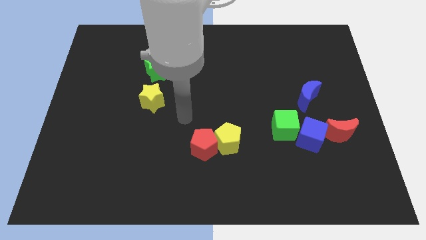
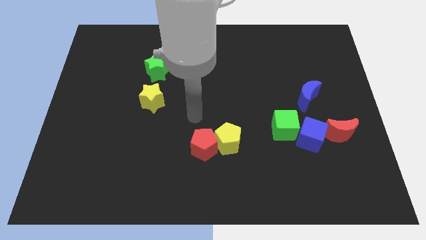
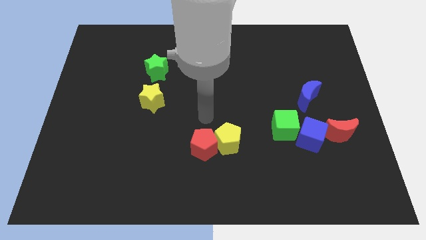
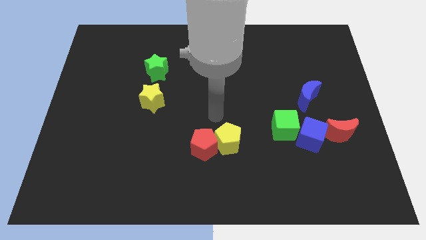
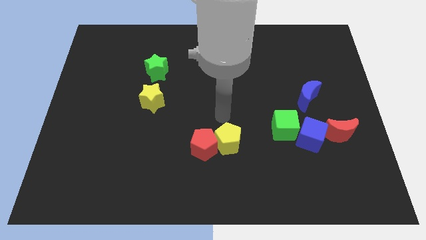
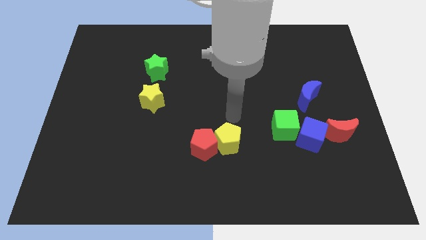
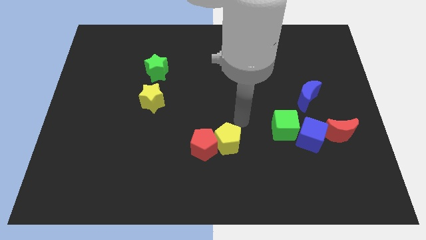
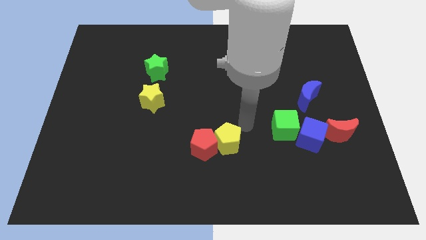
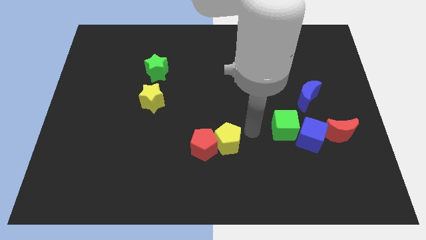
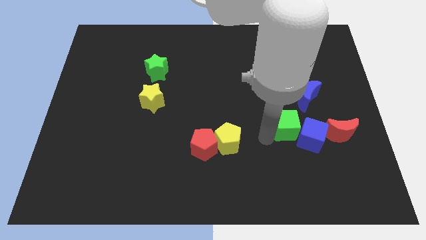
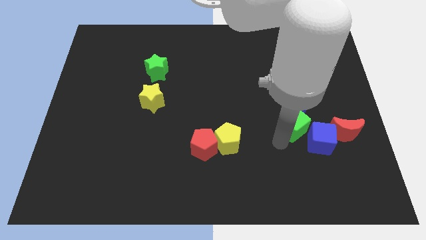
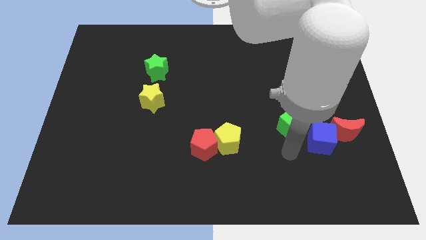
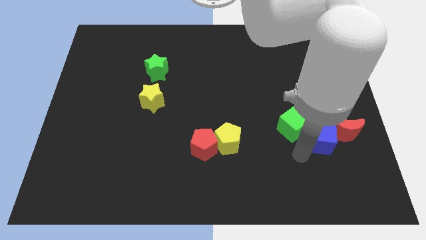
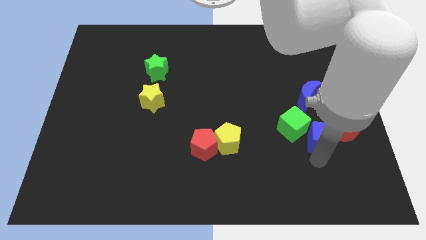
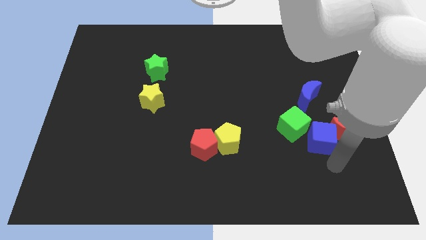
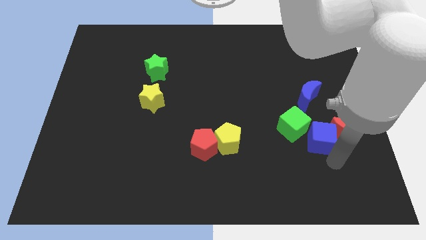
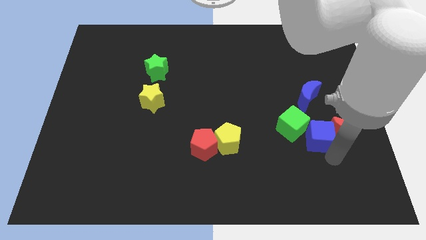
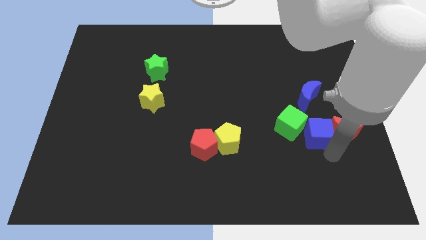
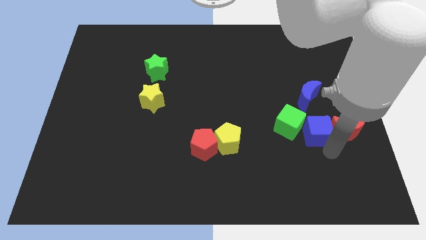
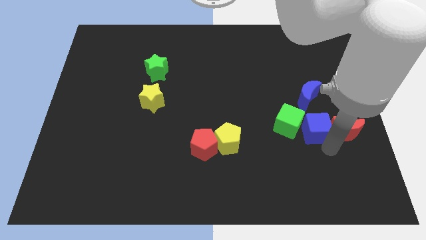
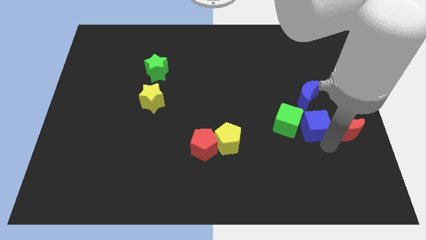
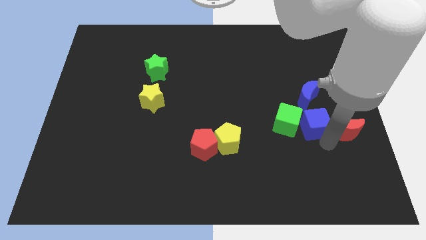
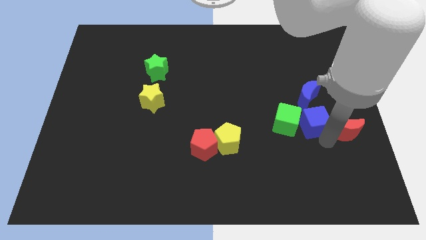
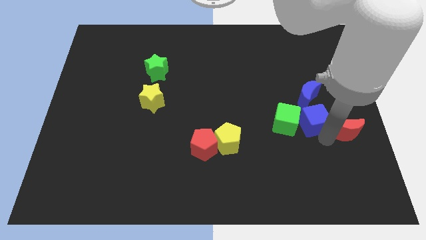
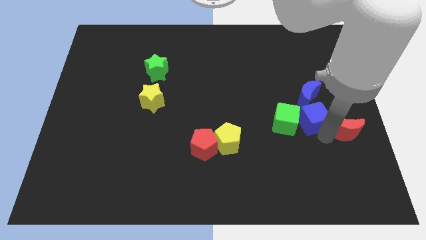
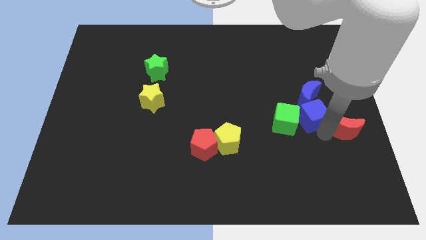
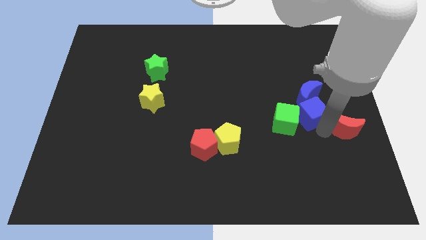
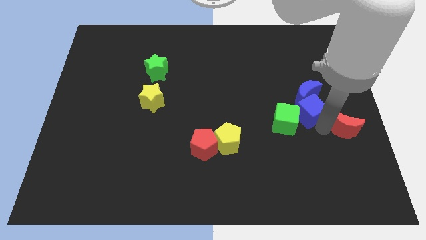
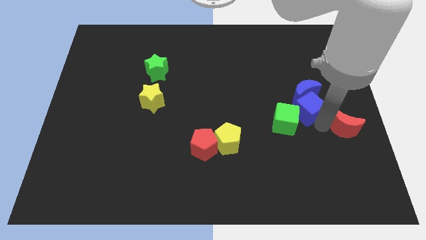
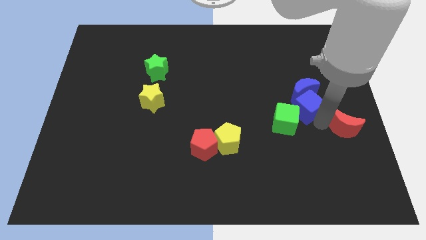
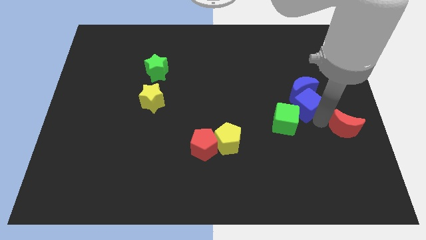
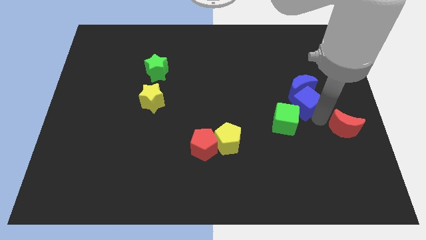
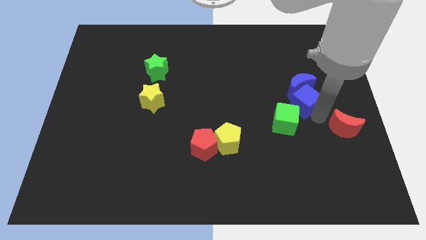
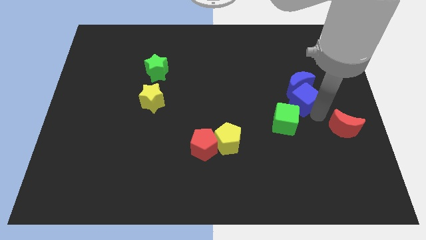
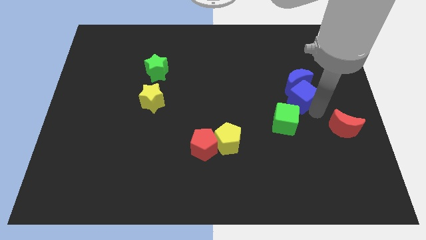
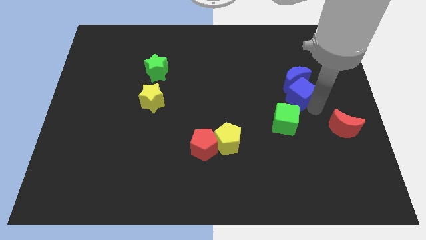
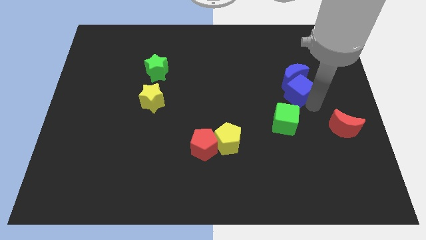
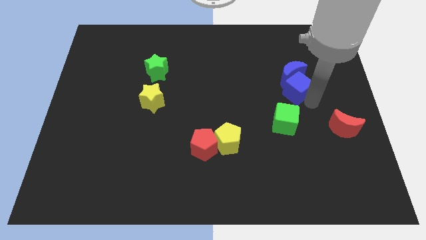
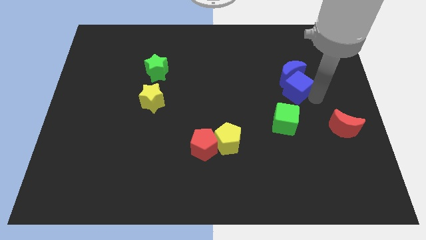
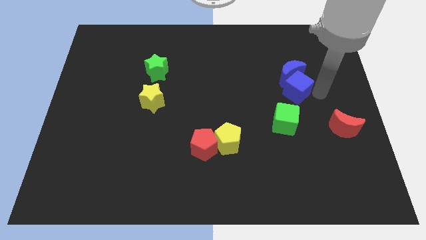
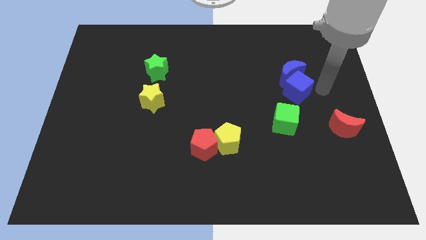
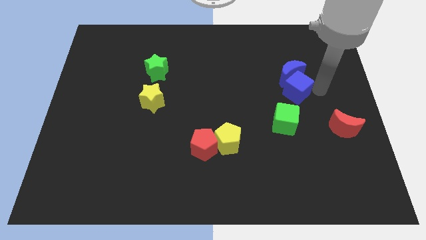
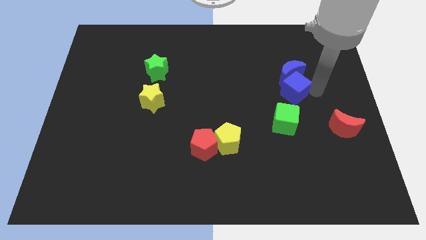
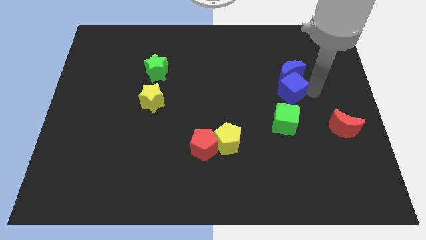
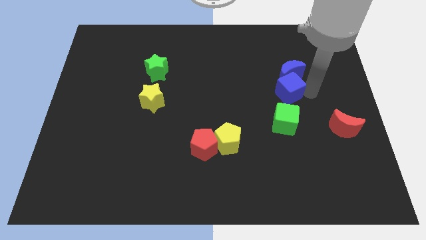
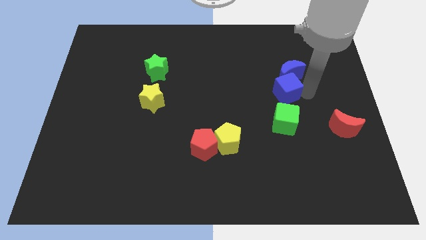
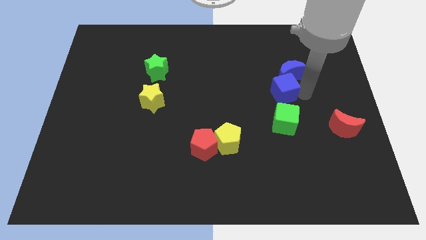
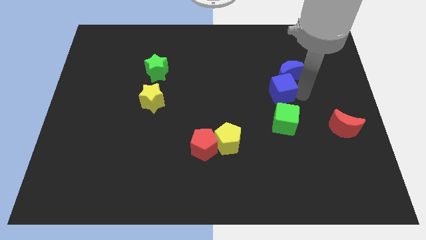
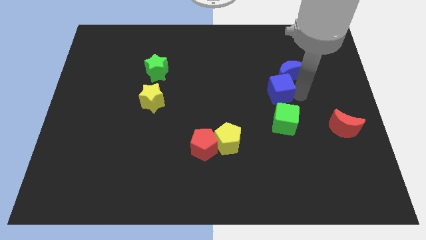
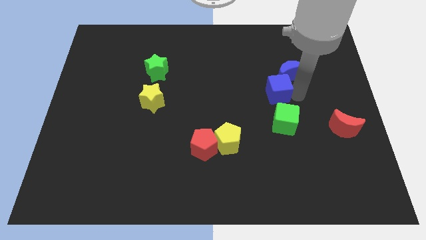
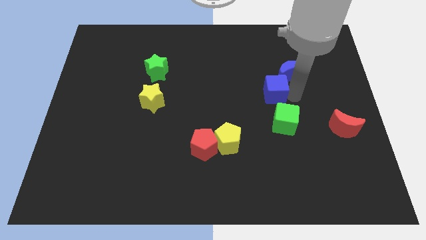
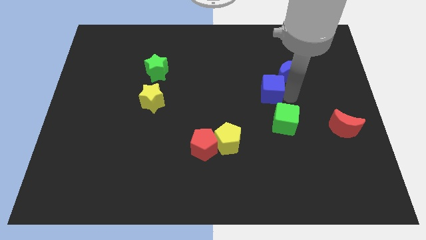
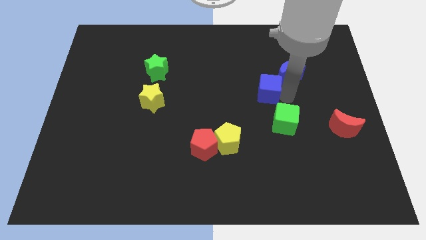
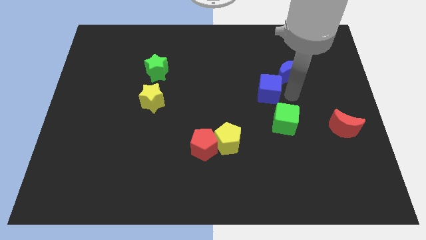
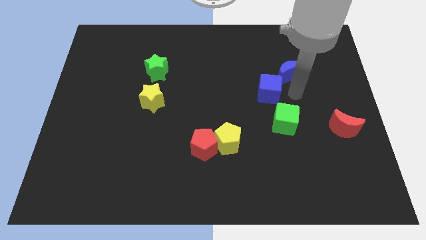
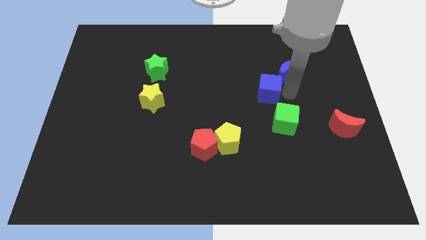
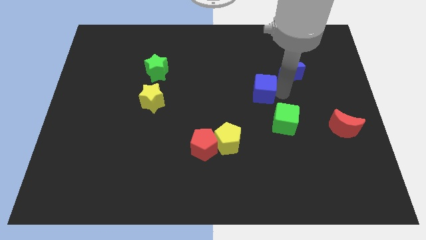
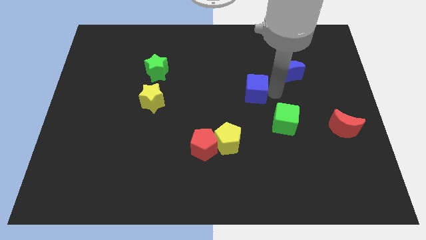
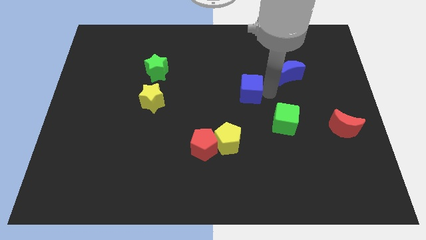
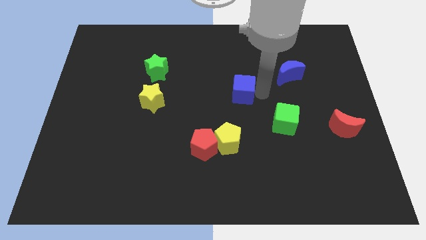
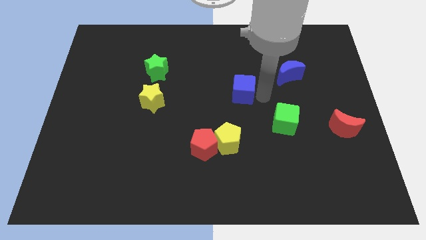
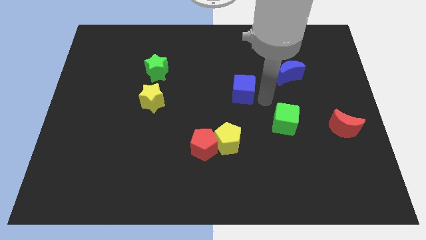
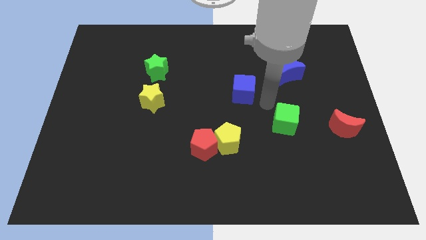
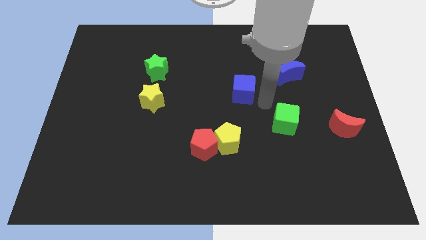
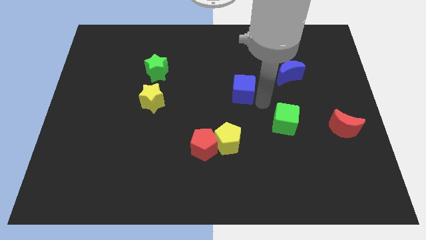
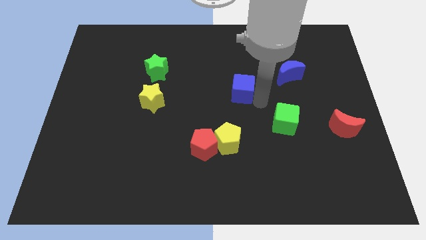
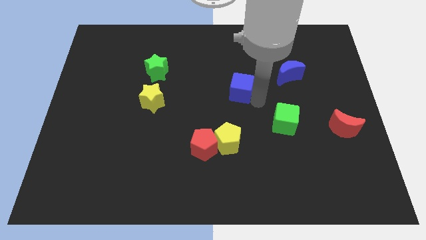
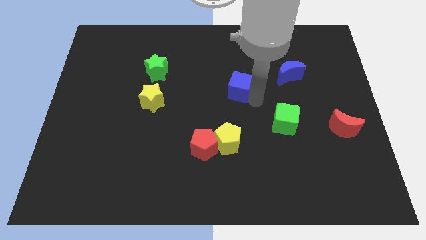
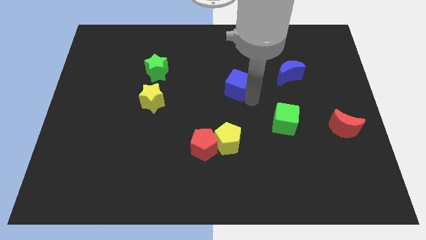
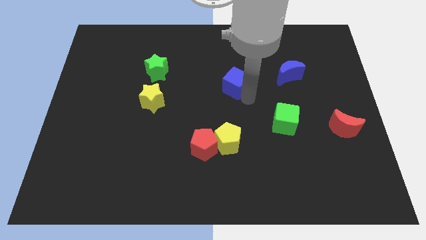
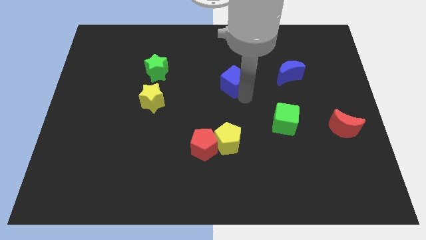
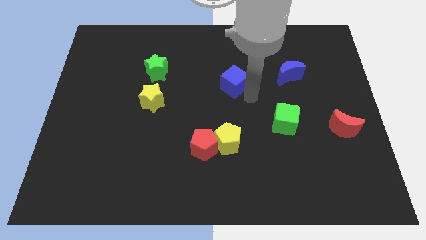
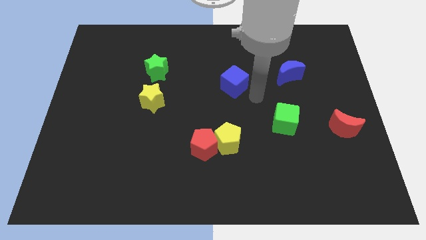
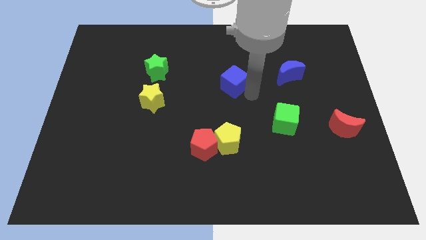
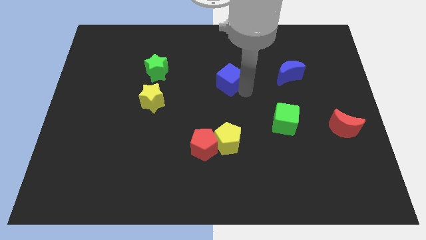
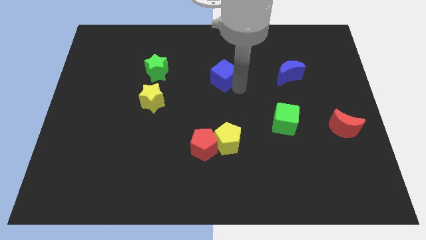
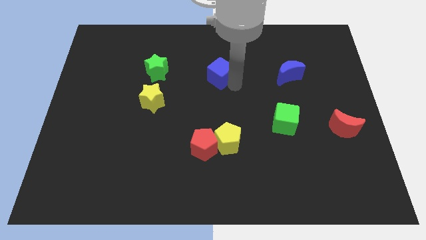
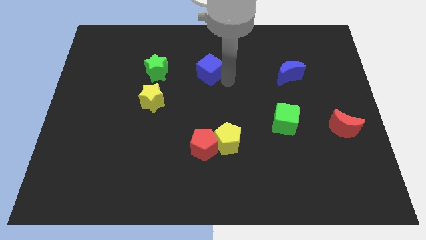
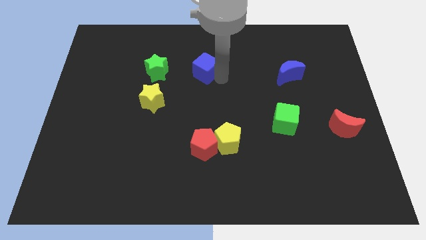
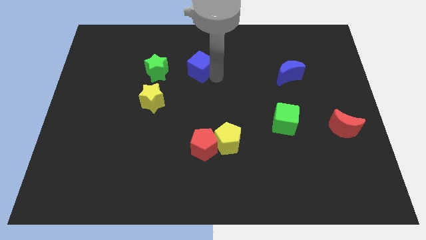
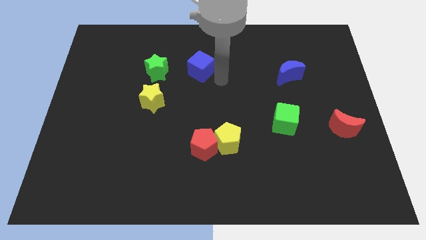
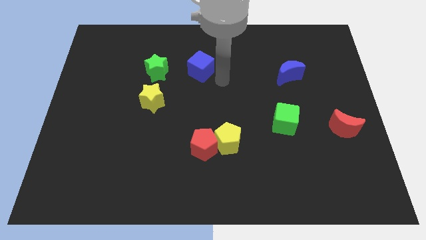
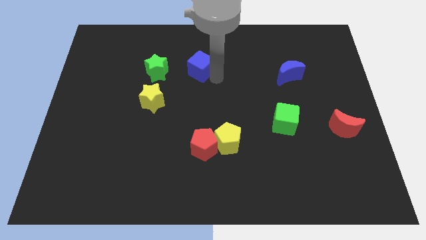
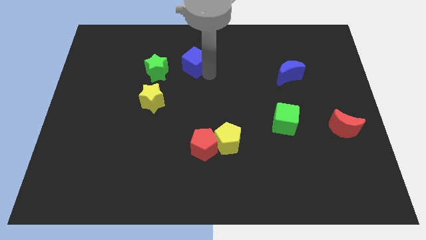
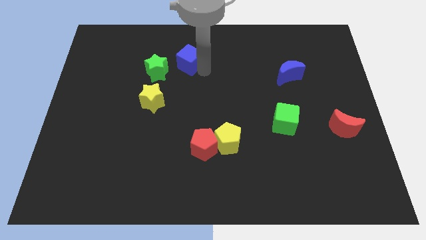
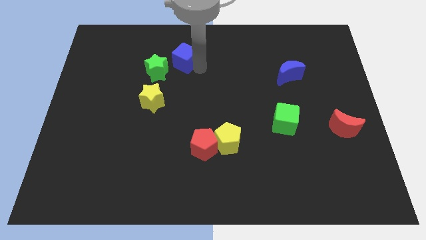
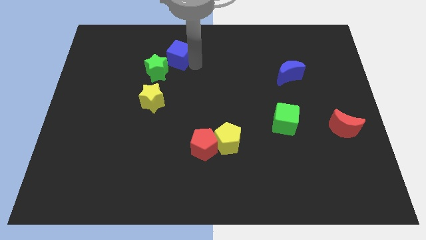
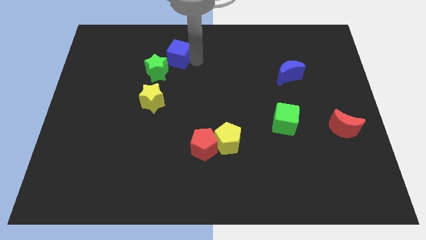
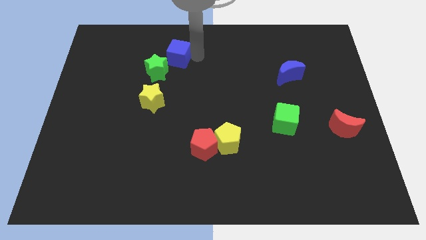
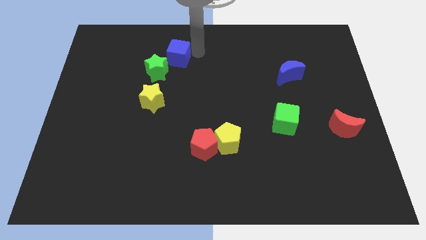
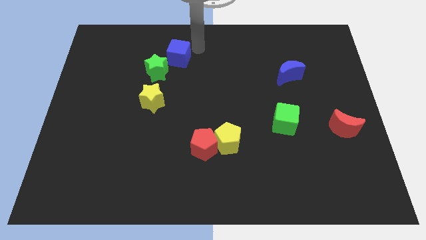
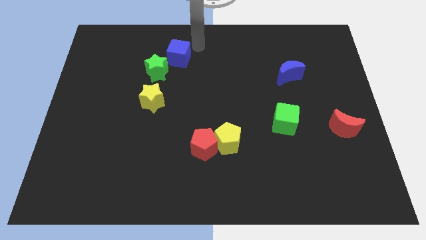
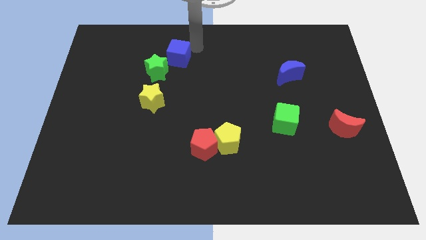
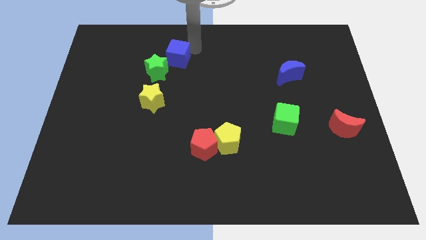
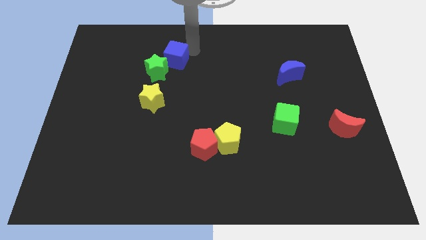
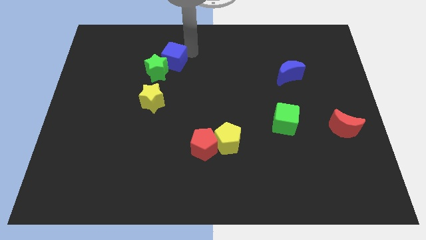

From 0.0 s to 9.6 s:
put the blue cube to the top side of the yellow star
